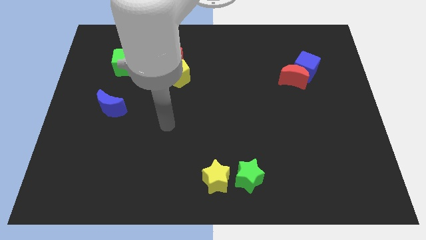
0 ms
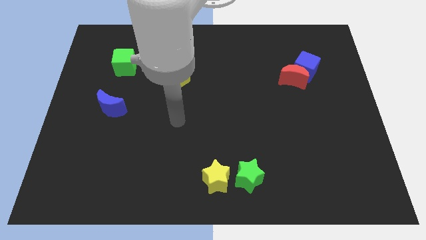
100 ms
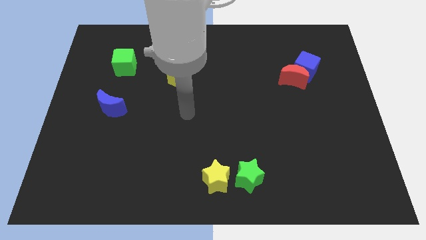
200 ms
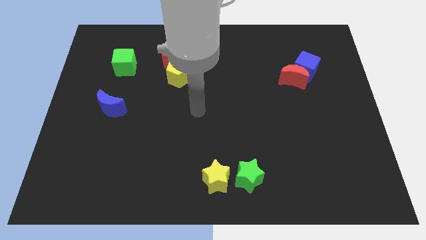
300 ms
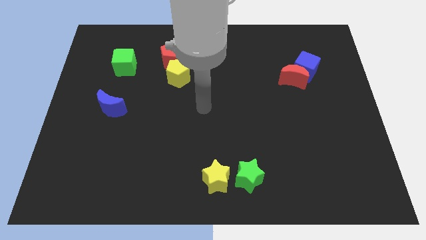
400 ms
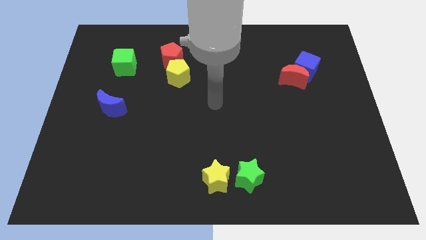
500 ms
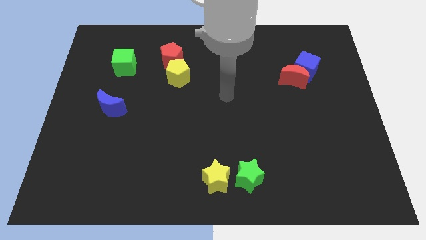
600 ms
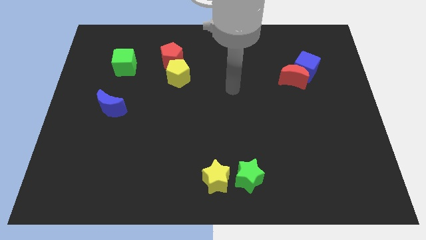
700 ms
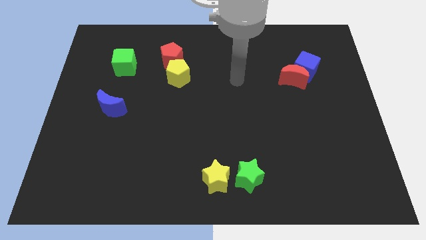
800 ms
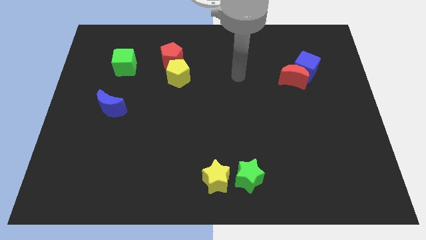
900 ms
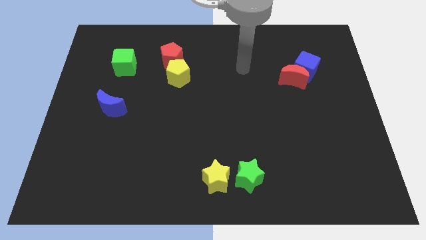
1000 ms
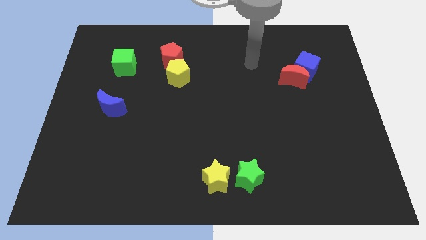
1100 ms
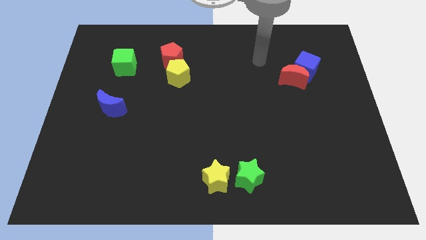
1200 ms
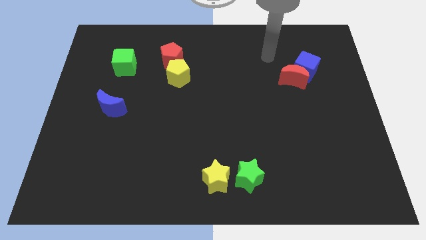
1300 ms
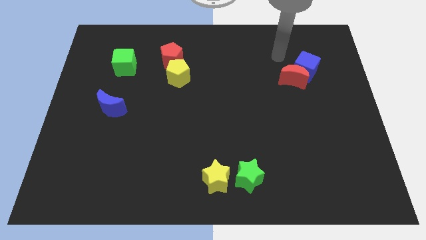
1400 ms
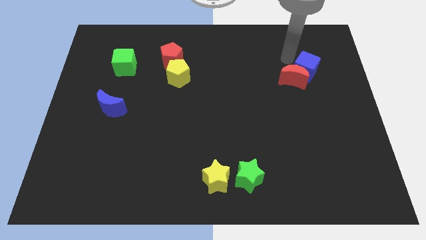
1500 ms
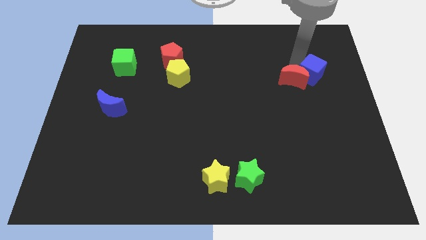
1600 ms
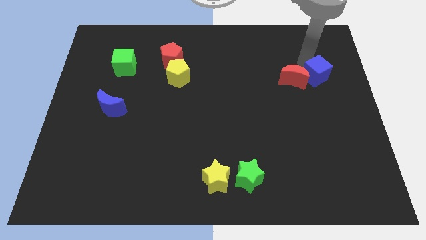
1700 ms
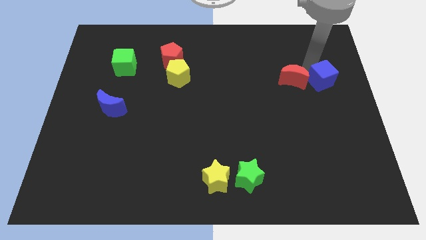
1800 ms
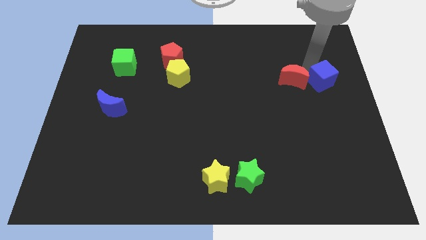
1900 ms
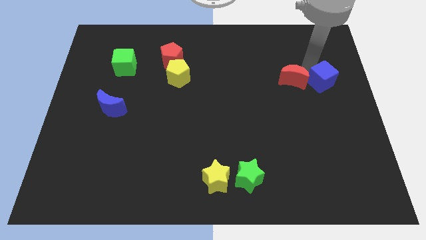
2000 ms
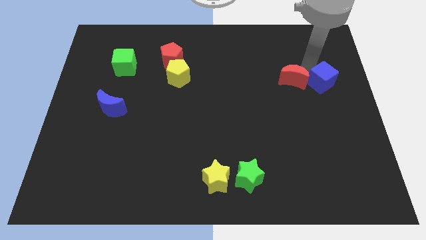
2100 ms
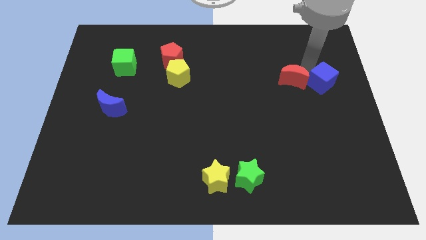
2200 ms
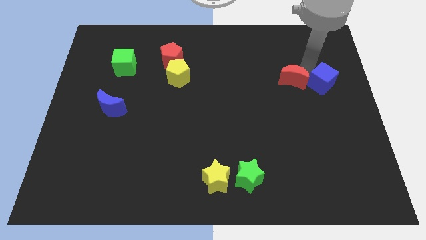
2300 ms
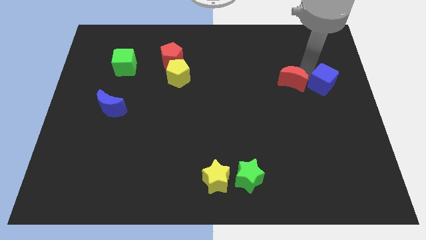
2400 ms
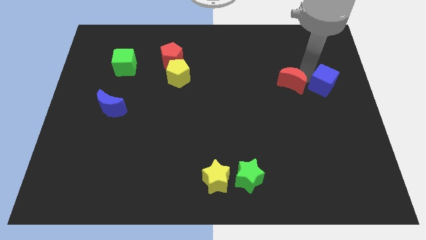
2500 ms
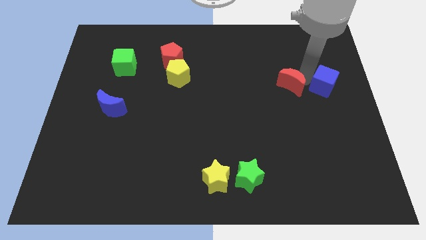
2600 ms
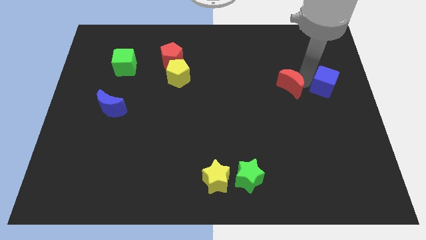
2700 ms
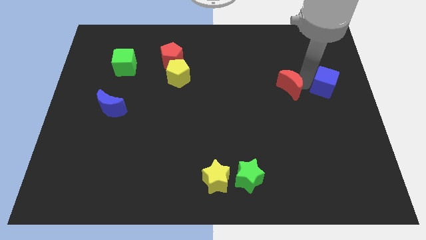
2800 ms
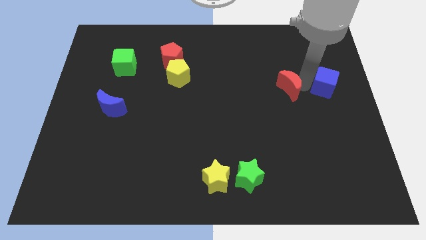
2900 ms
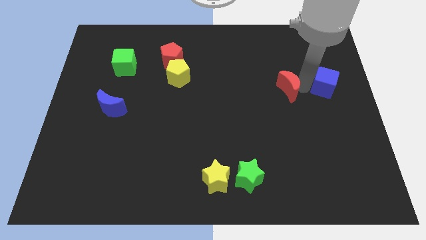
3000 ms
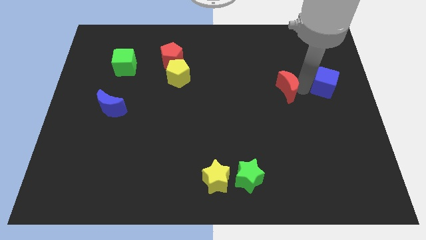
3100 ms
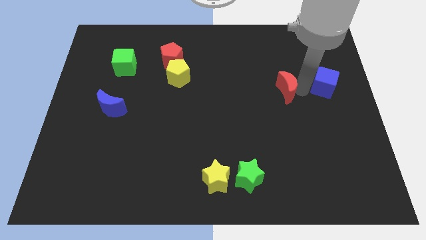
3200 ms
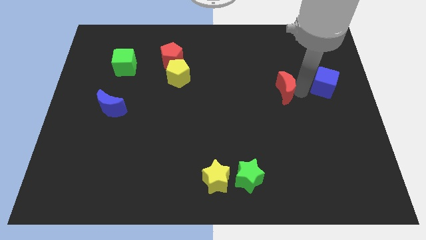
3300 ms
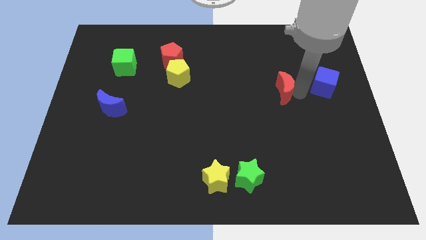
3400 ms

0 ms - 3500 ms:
separate the red moon from the blue cube

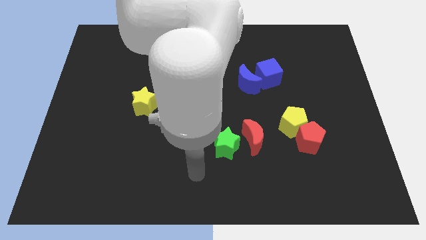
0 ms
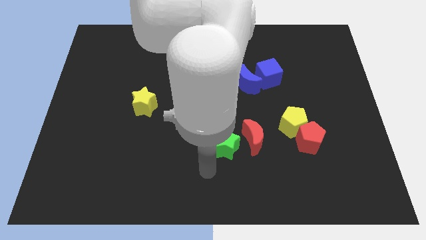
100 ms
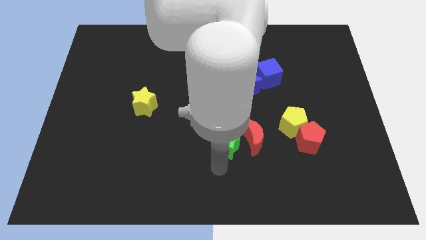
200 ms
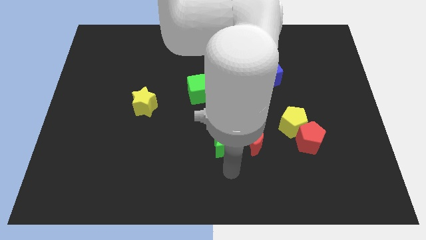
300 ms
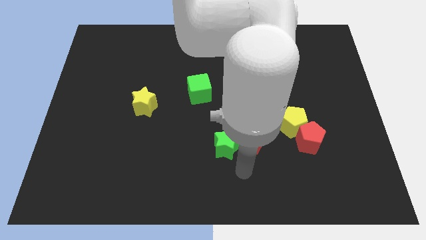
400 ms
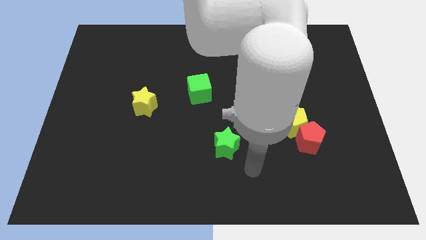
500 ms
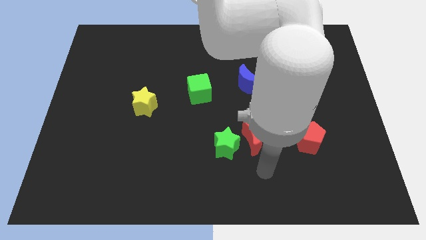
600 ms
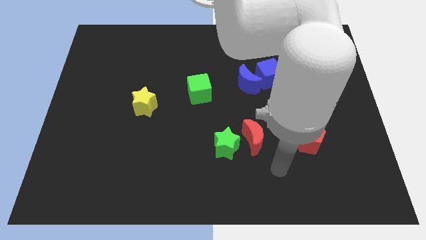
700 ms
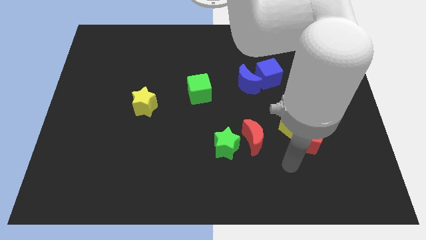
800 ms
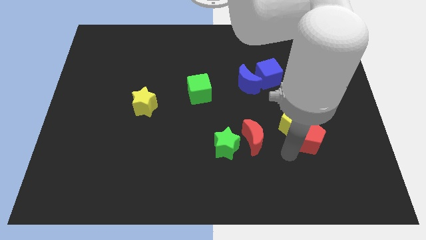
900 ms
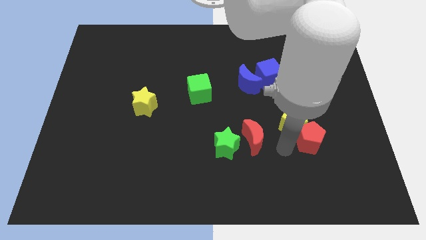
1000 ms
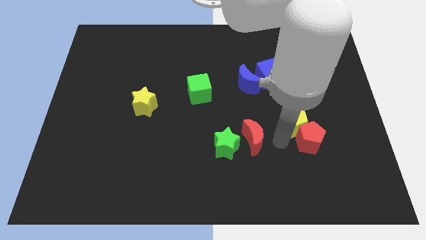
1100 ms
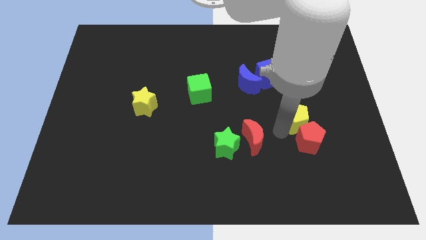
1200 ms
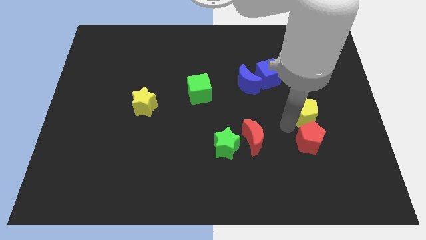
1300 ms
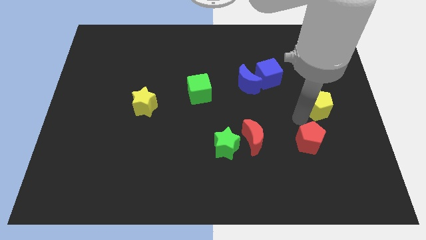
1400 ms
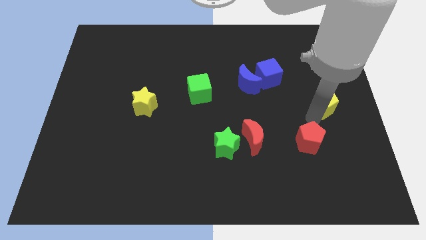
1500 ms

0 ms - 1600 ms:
pull the red pentagon apart from the yellow pentagon

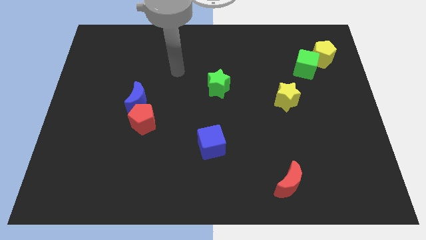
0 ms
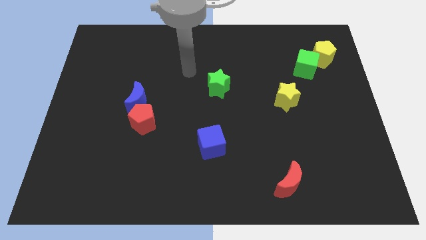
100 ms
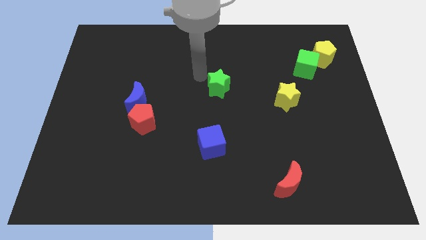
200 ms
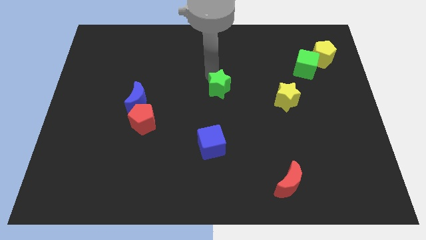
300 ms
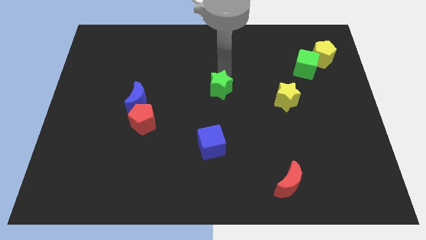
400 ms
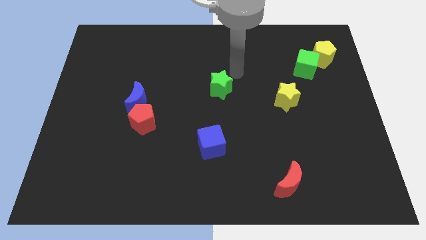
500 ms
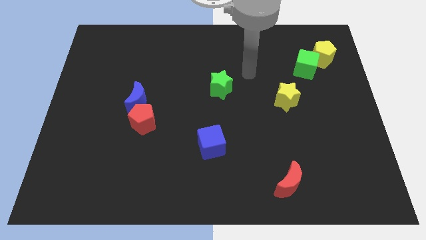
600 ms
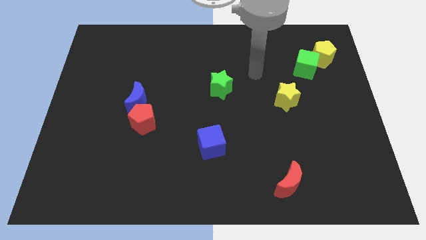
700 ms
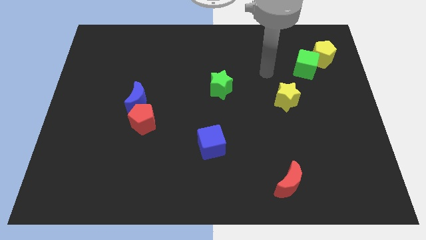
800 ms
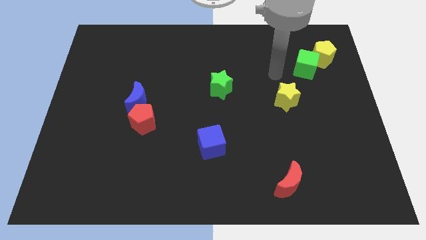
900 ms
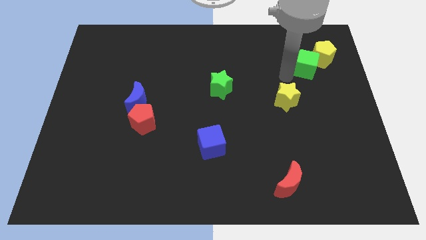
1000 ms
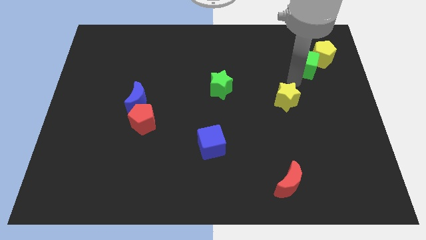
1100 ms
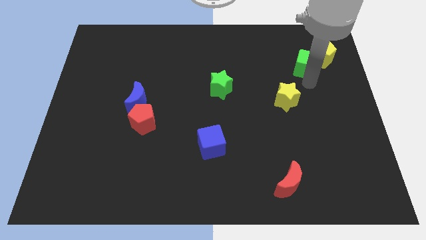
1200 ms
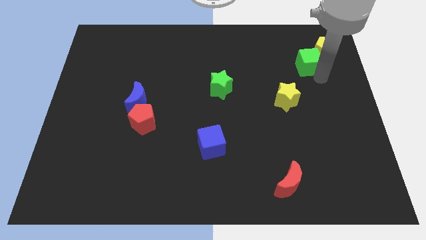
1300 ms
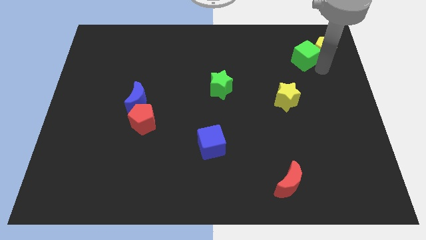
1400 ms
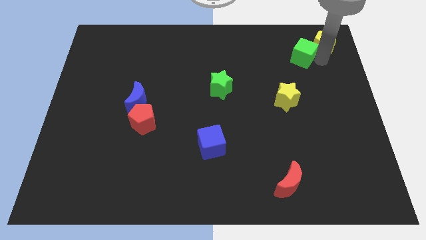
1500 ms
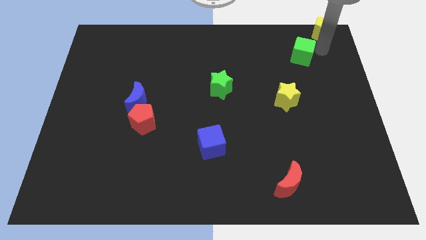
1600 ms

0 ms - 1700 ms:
separate the green cube from the yellow pentagon

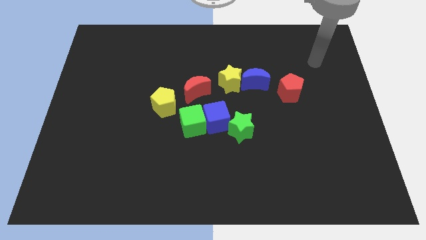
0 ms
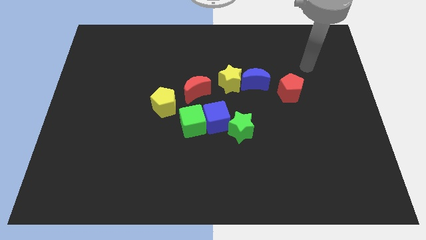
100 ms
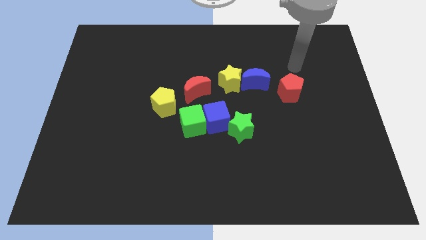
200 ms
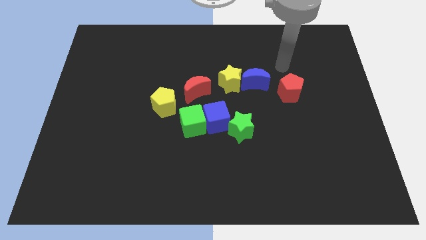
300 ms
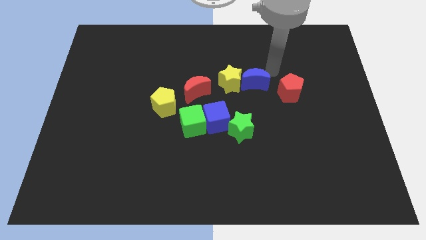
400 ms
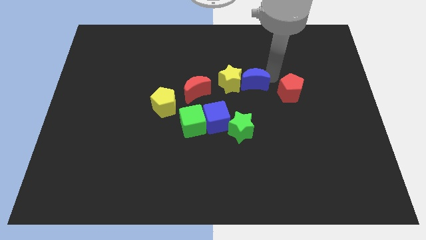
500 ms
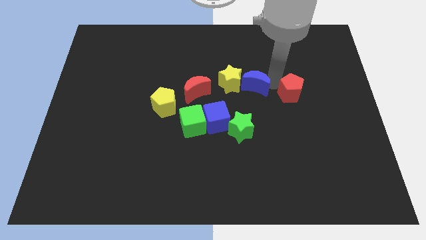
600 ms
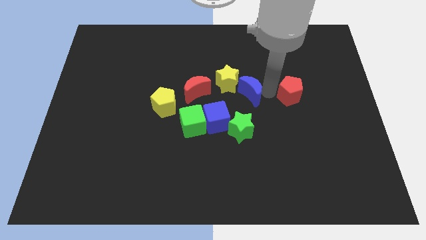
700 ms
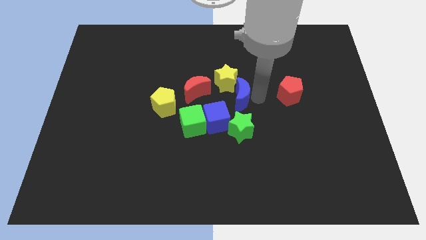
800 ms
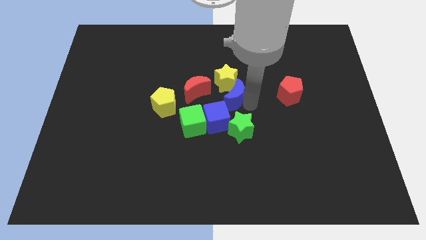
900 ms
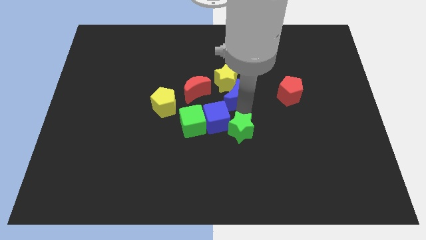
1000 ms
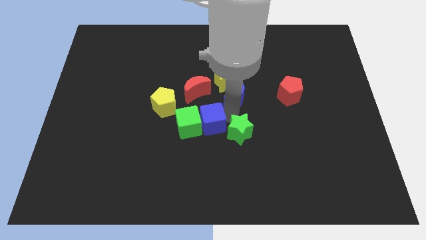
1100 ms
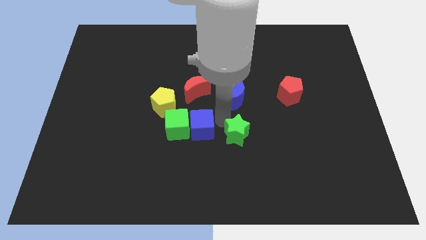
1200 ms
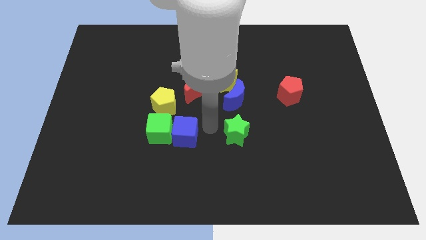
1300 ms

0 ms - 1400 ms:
separate the green star from the blue cube

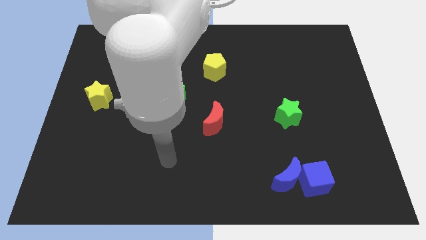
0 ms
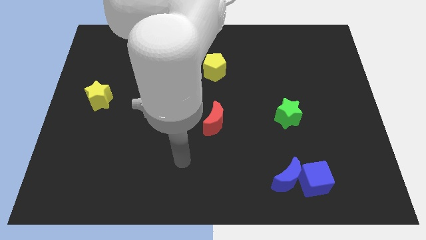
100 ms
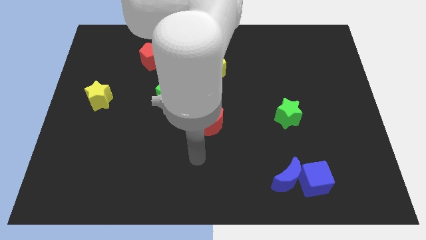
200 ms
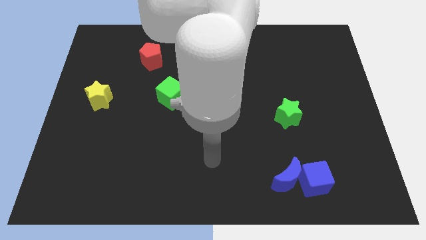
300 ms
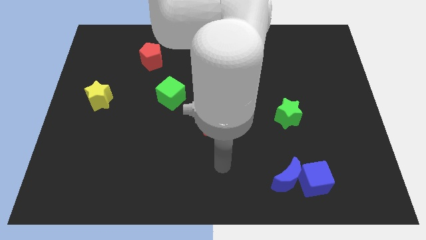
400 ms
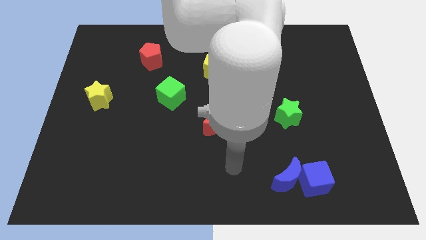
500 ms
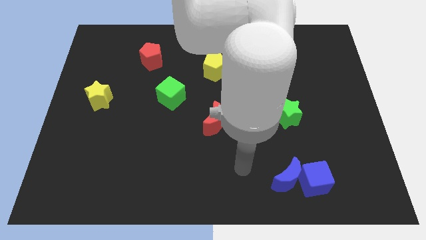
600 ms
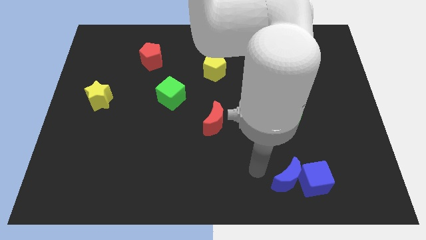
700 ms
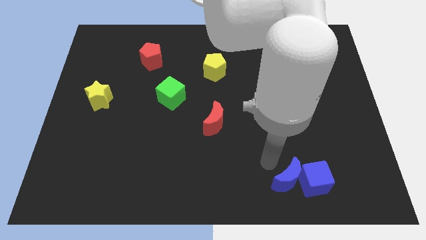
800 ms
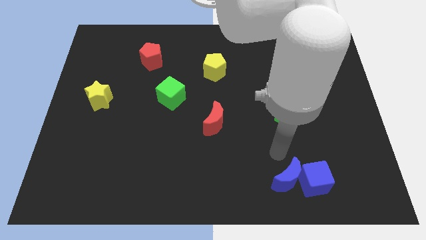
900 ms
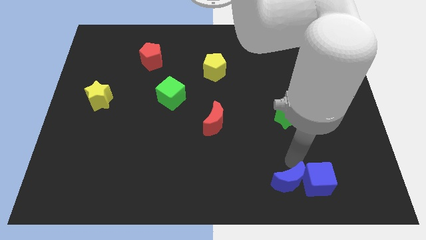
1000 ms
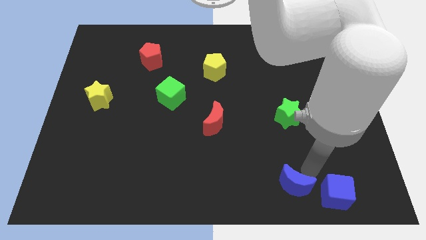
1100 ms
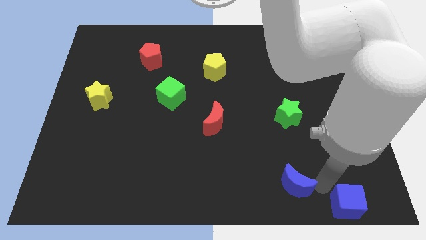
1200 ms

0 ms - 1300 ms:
move the blue moon away from the blue cube
